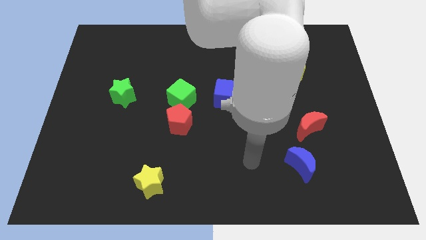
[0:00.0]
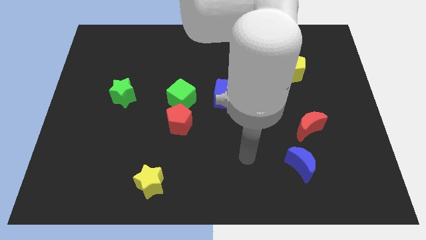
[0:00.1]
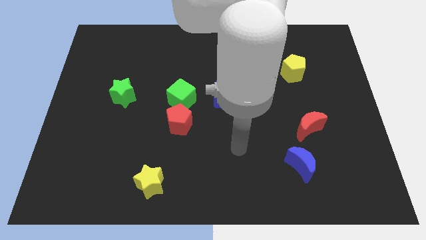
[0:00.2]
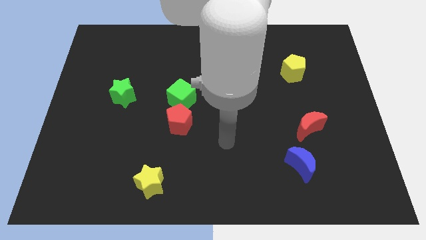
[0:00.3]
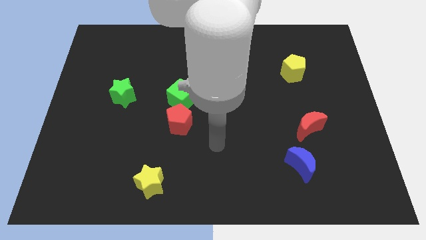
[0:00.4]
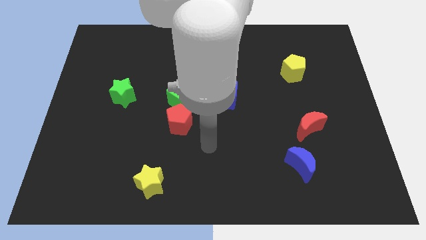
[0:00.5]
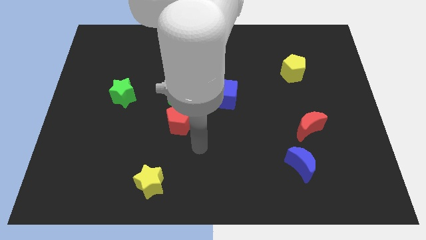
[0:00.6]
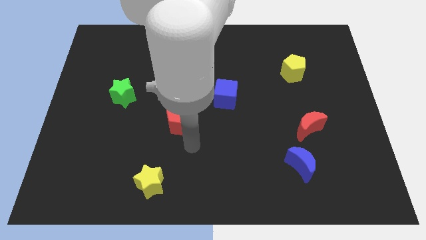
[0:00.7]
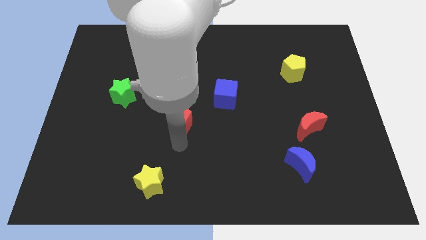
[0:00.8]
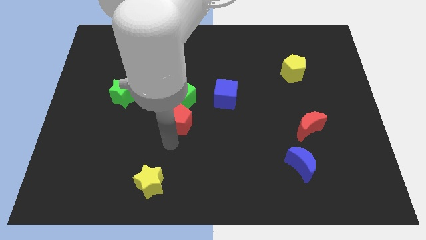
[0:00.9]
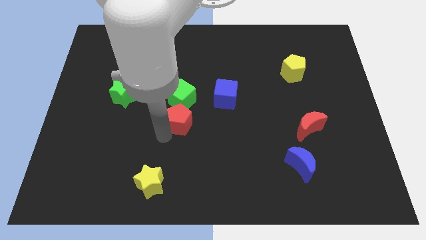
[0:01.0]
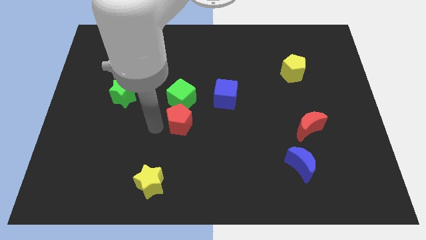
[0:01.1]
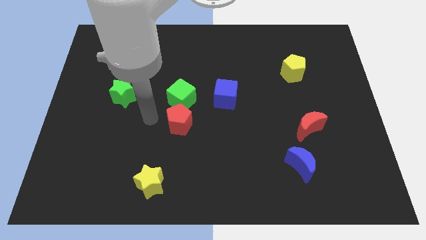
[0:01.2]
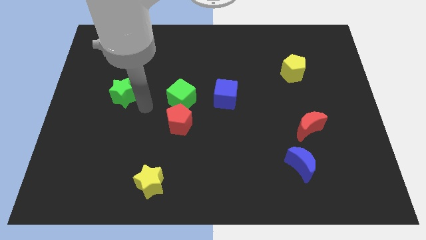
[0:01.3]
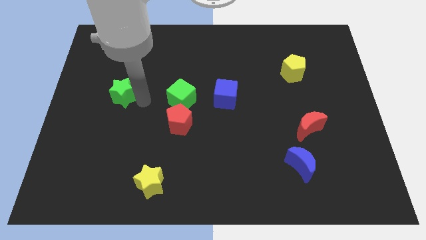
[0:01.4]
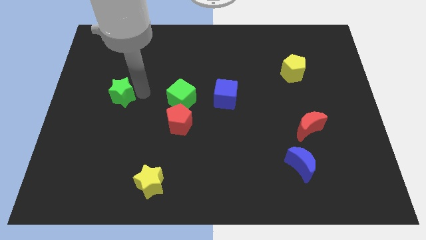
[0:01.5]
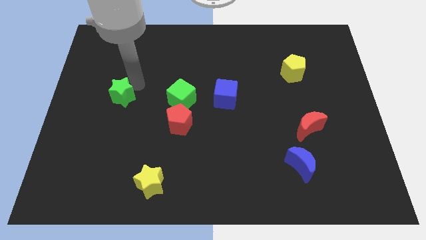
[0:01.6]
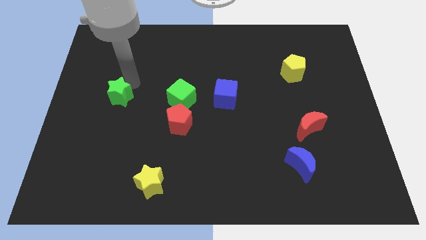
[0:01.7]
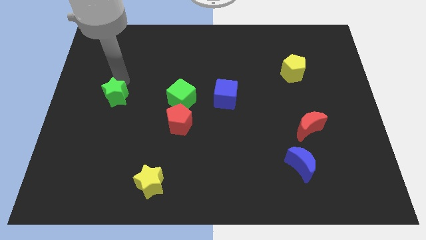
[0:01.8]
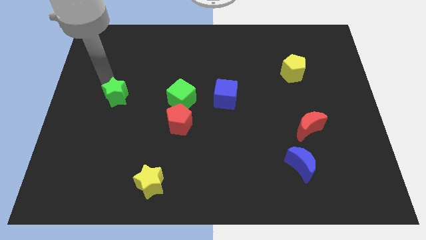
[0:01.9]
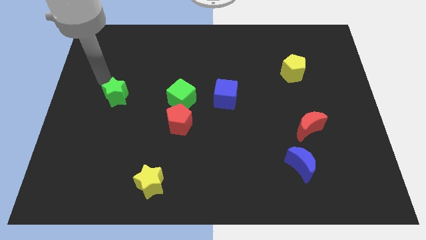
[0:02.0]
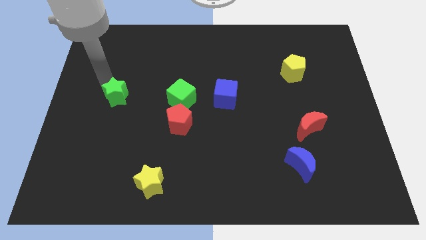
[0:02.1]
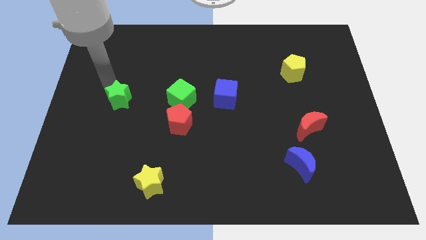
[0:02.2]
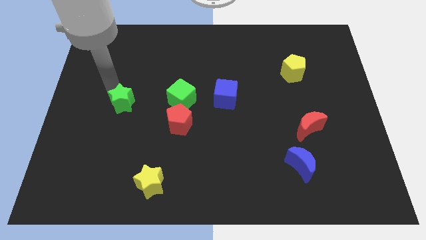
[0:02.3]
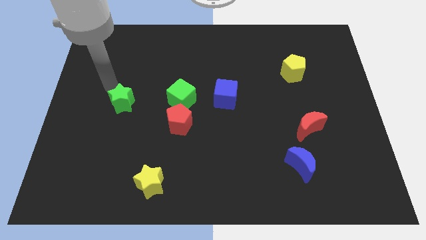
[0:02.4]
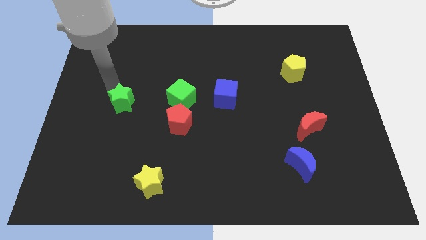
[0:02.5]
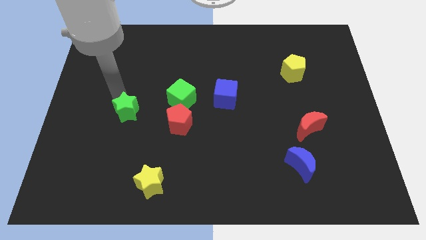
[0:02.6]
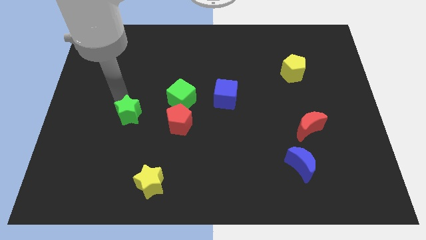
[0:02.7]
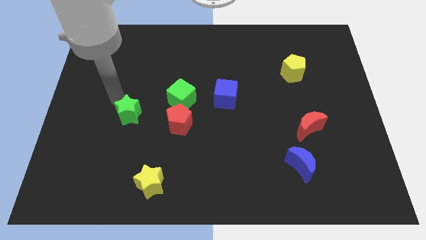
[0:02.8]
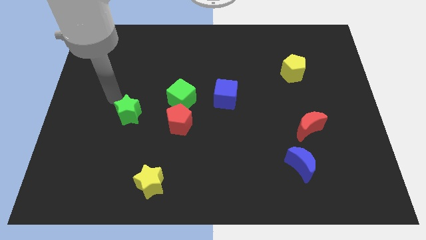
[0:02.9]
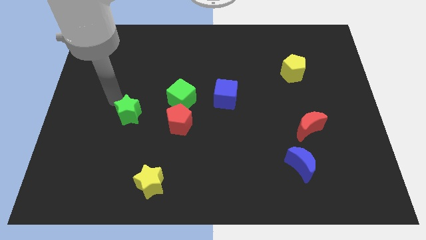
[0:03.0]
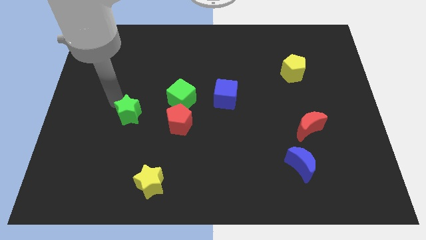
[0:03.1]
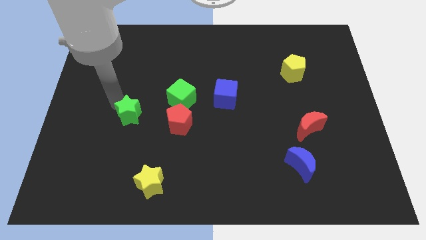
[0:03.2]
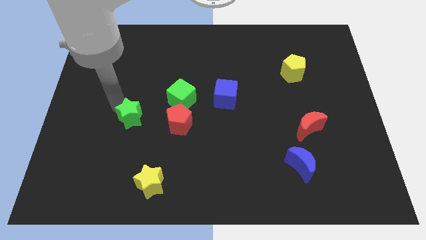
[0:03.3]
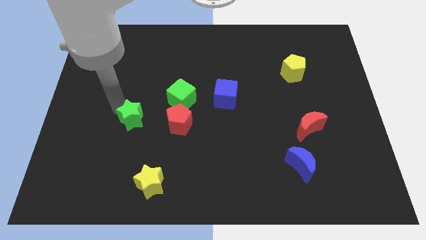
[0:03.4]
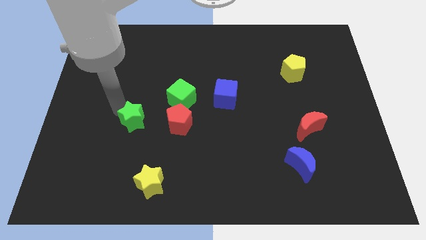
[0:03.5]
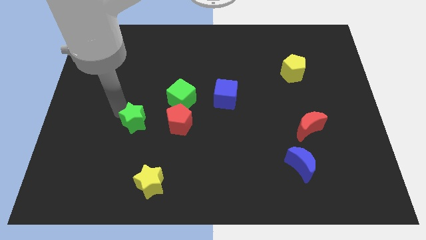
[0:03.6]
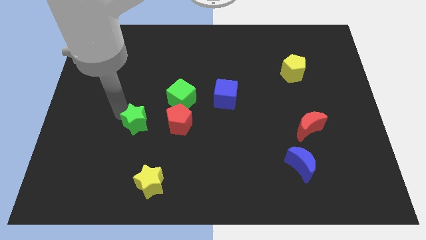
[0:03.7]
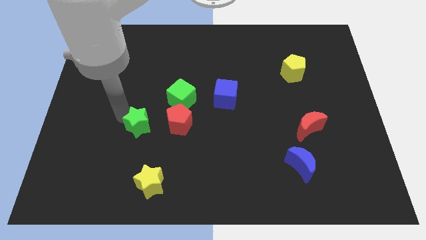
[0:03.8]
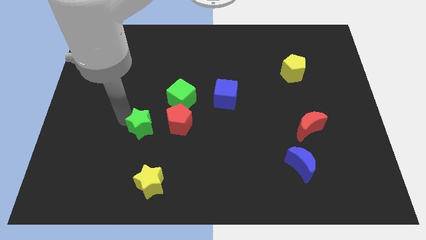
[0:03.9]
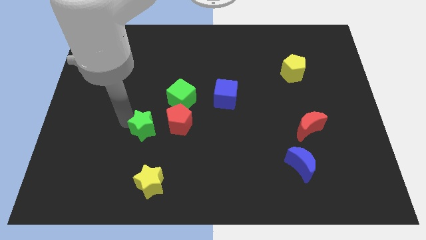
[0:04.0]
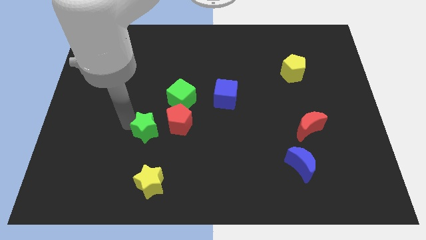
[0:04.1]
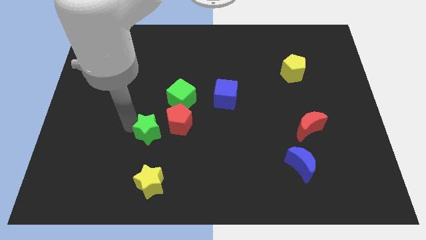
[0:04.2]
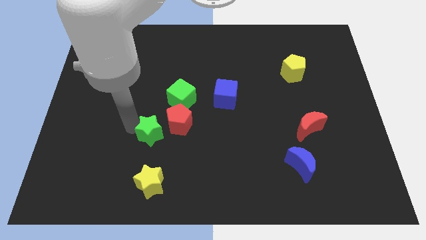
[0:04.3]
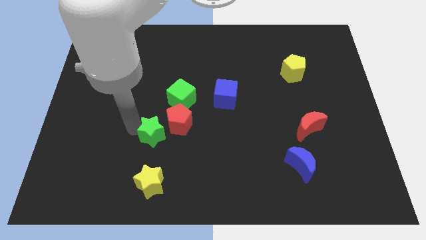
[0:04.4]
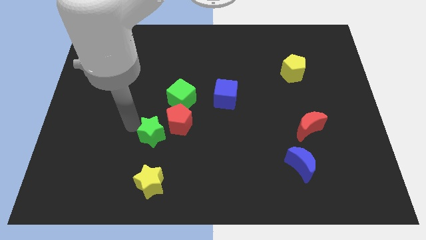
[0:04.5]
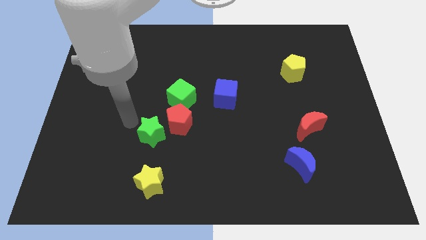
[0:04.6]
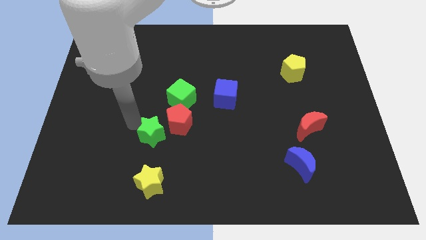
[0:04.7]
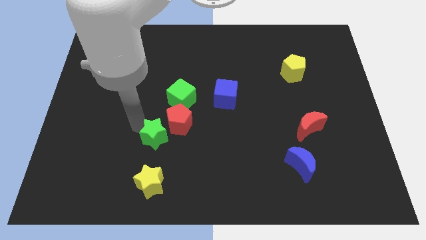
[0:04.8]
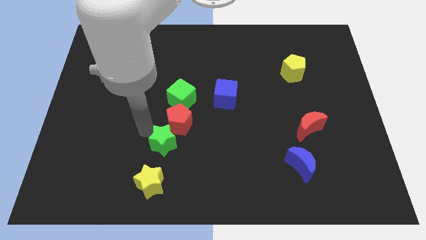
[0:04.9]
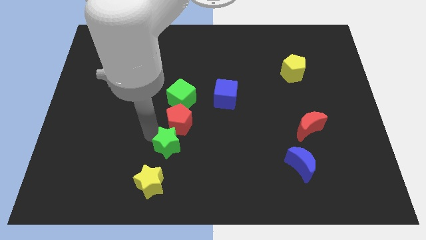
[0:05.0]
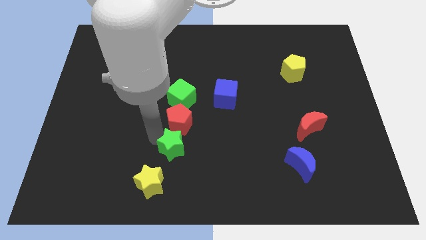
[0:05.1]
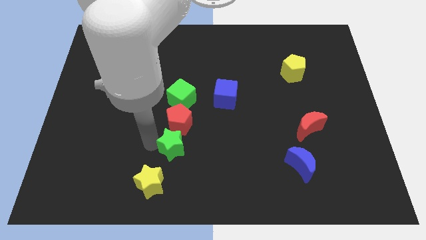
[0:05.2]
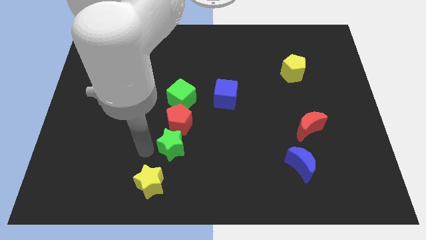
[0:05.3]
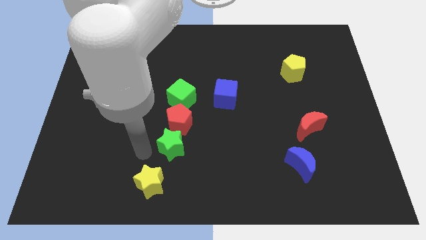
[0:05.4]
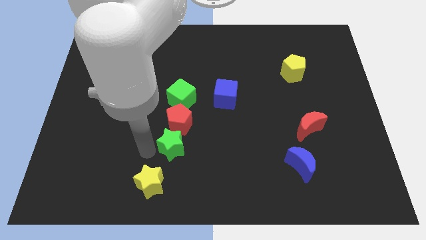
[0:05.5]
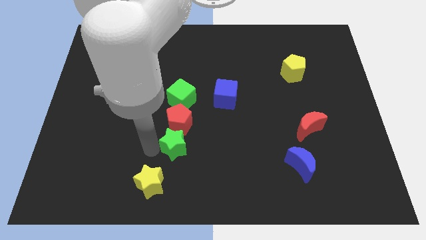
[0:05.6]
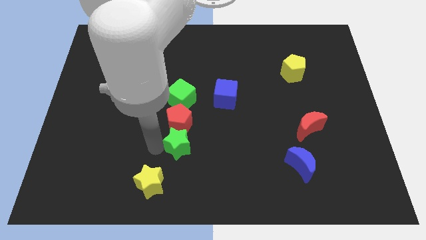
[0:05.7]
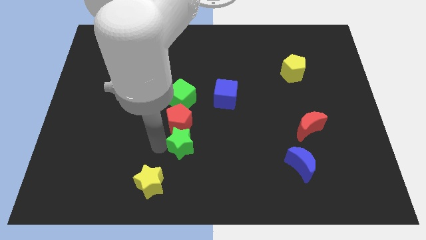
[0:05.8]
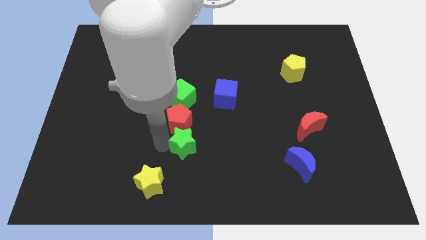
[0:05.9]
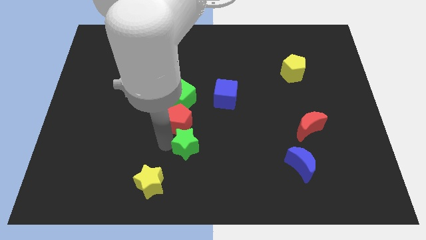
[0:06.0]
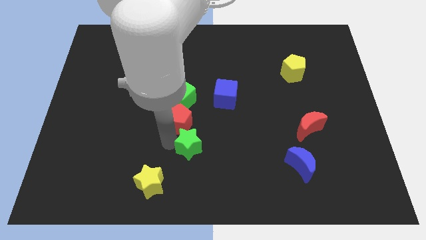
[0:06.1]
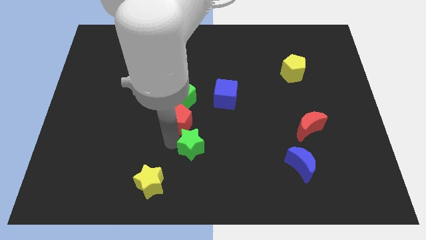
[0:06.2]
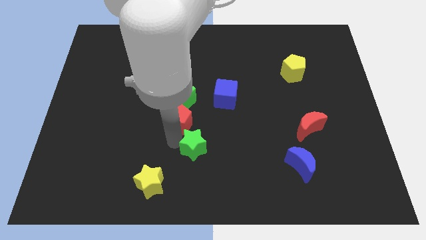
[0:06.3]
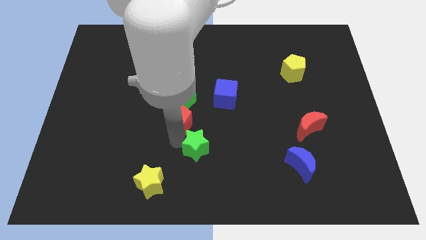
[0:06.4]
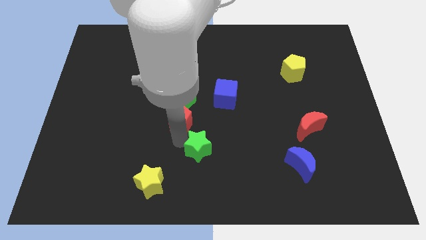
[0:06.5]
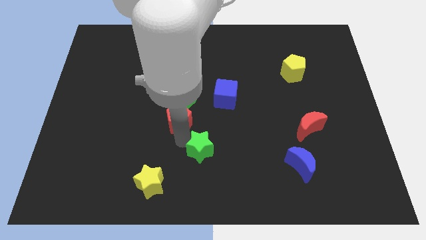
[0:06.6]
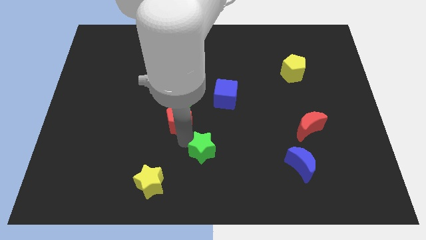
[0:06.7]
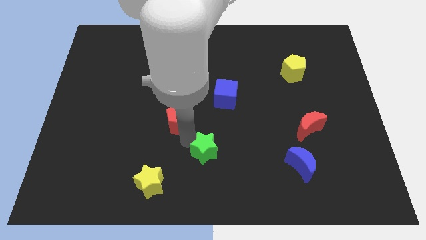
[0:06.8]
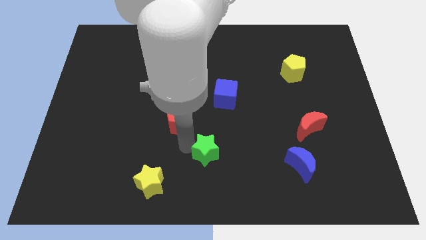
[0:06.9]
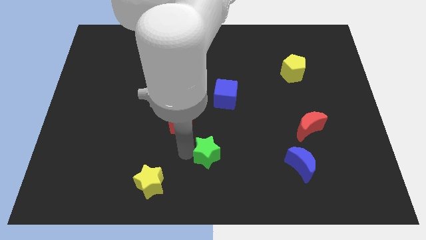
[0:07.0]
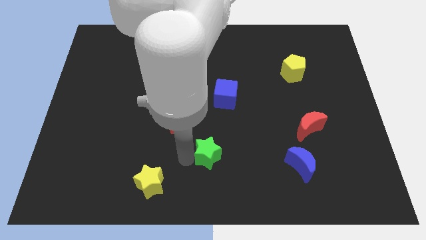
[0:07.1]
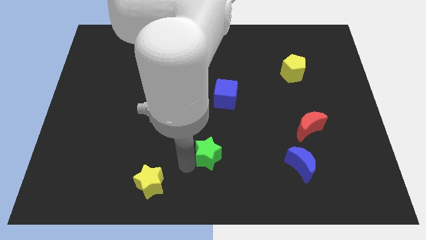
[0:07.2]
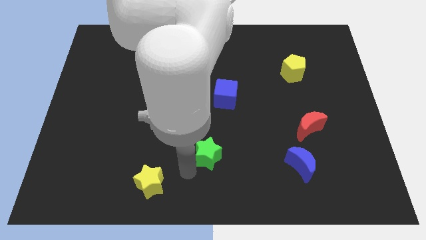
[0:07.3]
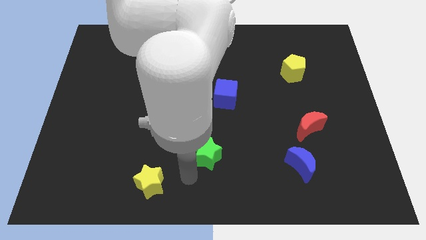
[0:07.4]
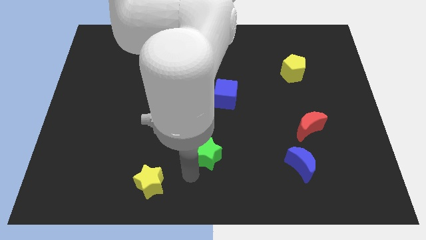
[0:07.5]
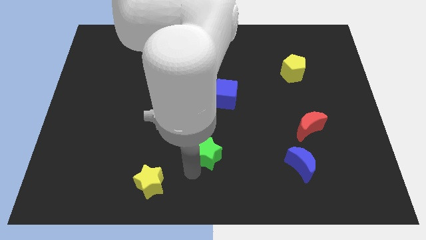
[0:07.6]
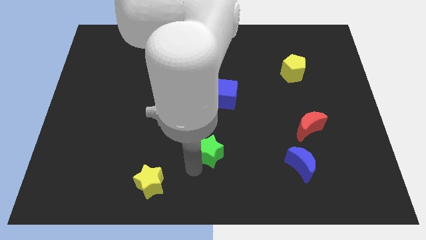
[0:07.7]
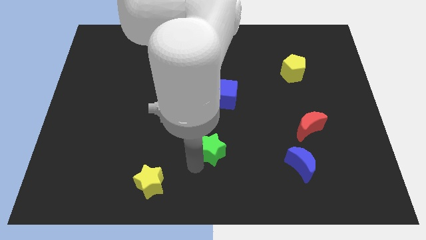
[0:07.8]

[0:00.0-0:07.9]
put the green star to the bottom side of the blue cube
